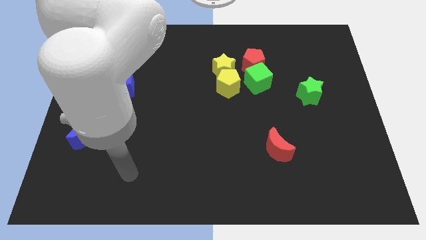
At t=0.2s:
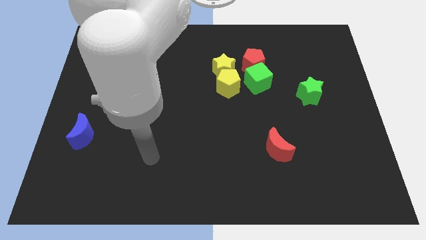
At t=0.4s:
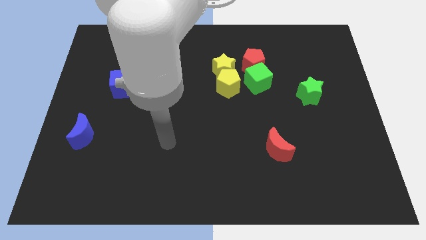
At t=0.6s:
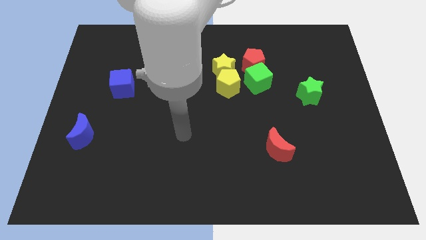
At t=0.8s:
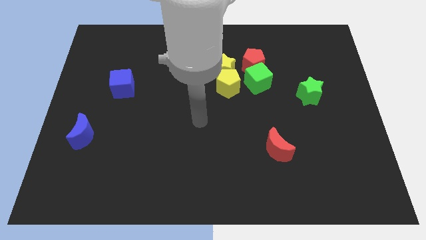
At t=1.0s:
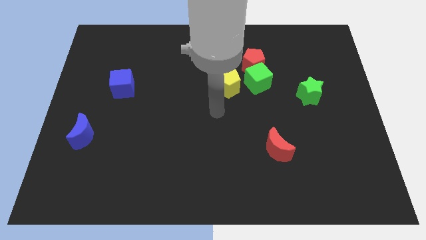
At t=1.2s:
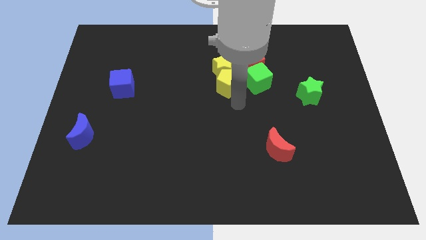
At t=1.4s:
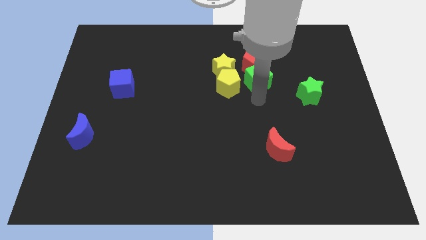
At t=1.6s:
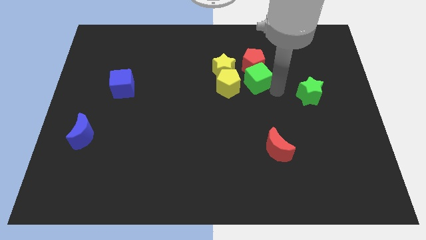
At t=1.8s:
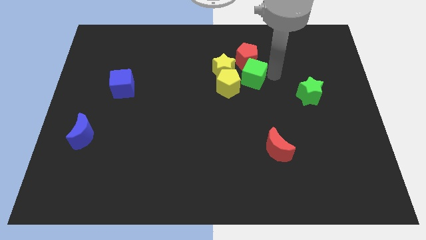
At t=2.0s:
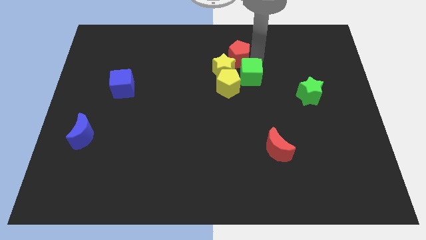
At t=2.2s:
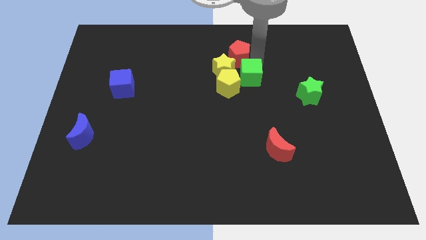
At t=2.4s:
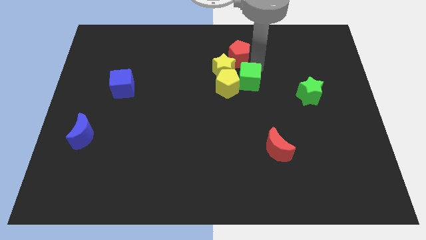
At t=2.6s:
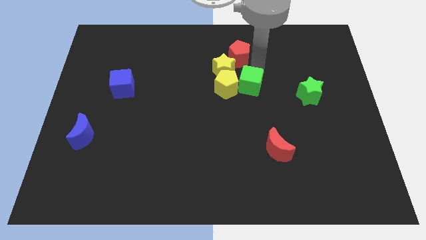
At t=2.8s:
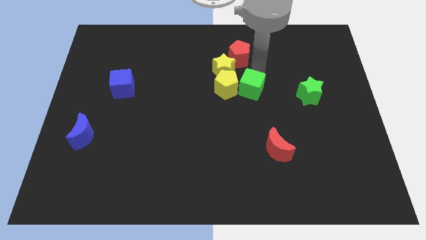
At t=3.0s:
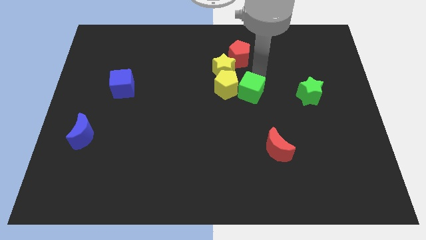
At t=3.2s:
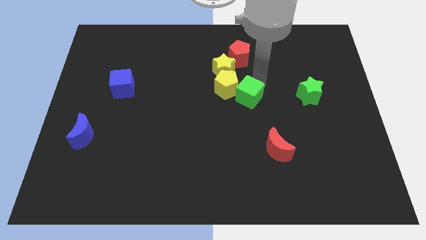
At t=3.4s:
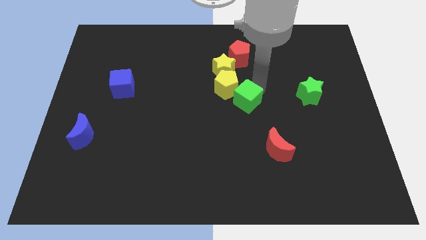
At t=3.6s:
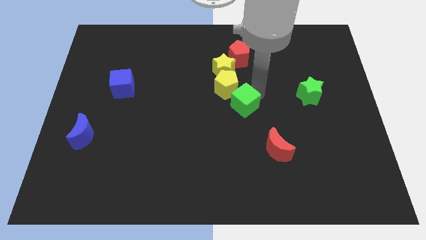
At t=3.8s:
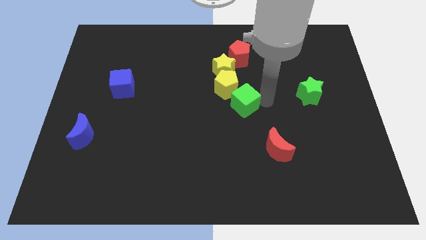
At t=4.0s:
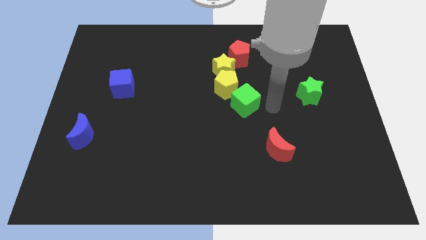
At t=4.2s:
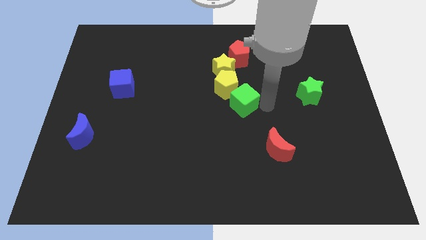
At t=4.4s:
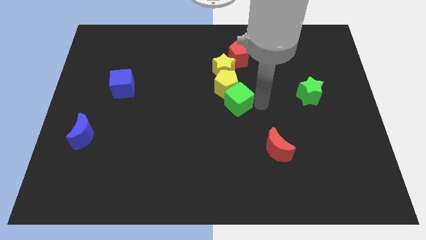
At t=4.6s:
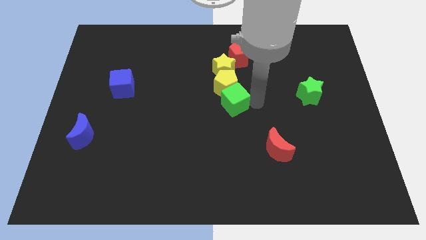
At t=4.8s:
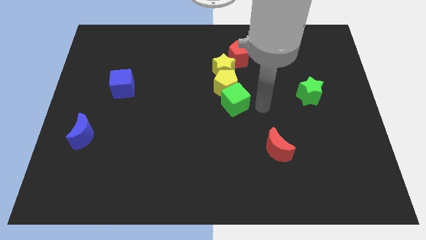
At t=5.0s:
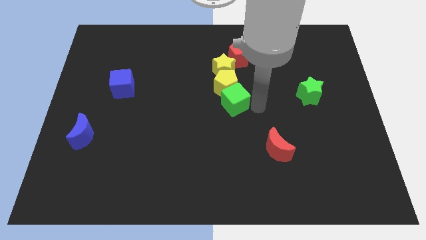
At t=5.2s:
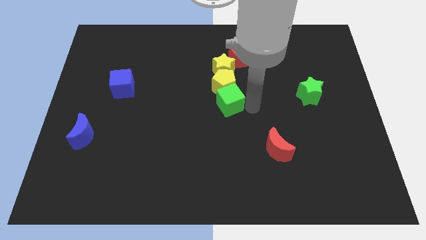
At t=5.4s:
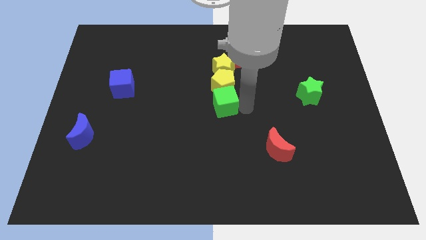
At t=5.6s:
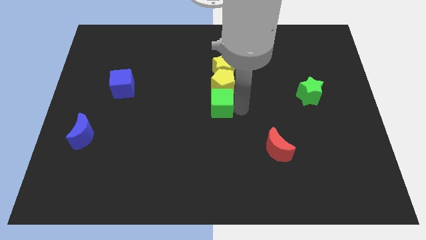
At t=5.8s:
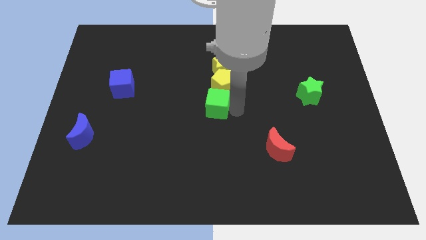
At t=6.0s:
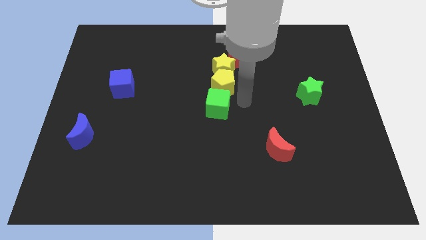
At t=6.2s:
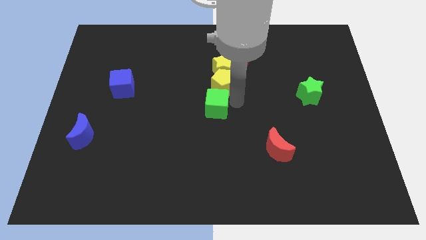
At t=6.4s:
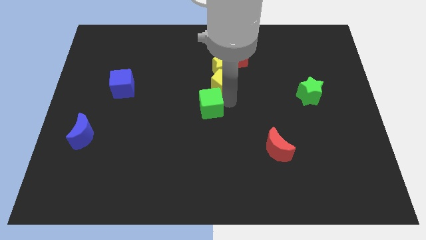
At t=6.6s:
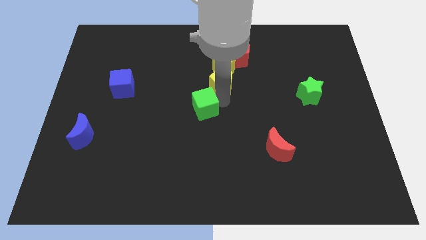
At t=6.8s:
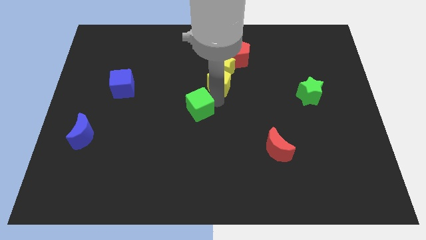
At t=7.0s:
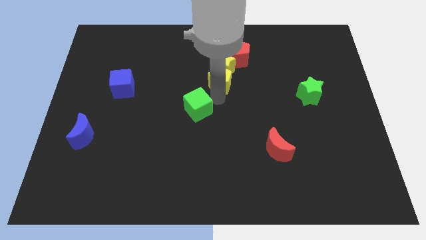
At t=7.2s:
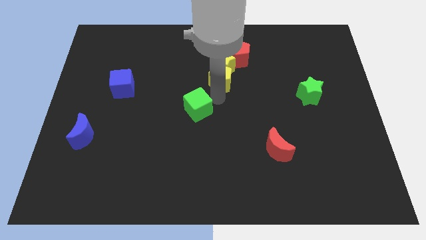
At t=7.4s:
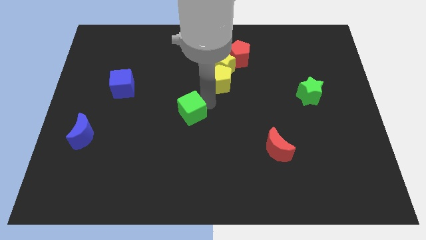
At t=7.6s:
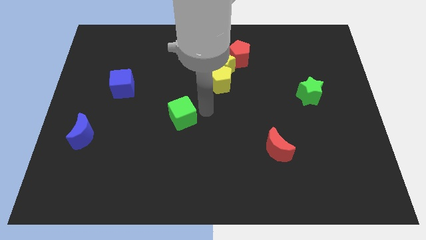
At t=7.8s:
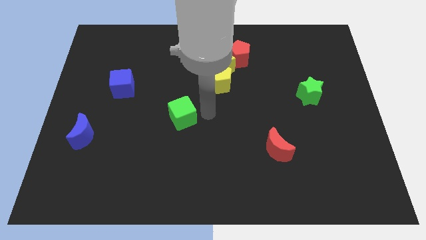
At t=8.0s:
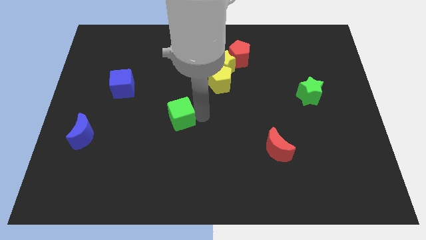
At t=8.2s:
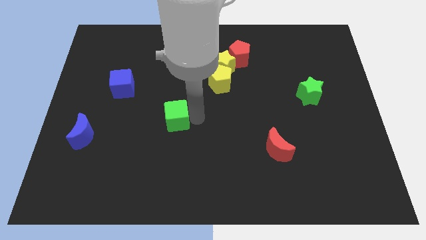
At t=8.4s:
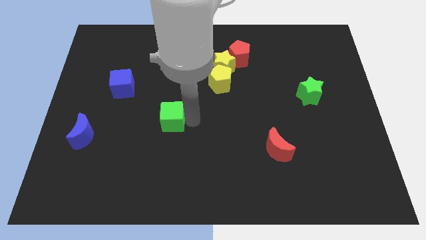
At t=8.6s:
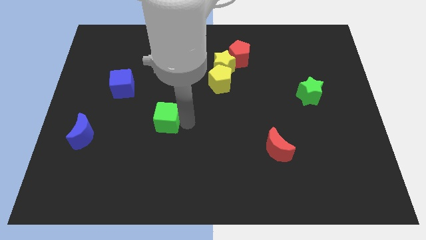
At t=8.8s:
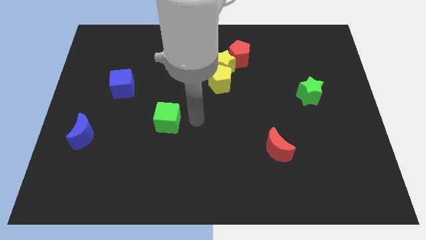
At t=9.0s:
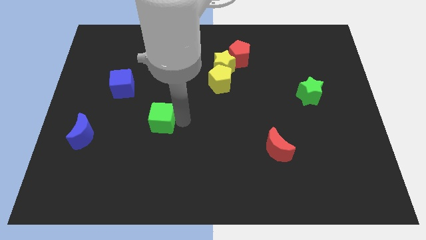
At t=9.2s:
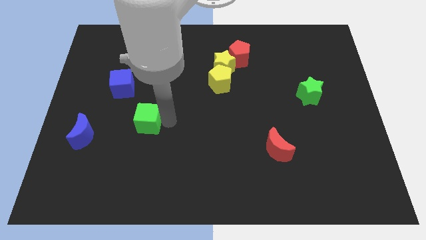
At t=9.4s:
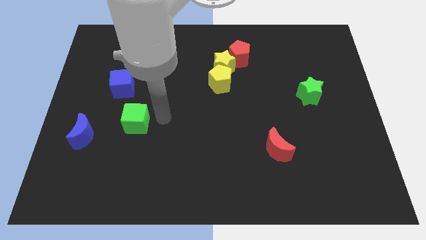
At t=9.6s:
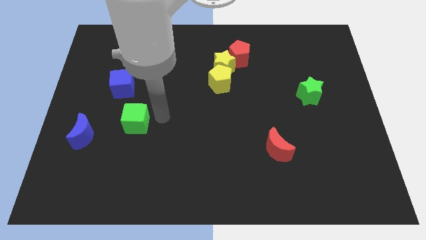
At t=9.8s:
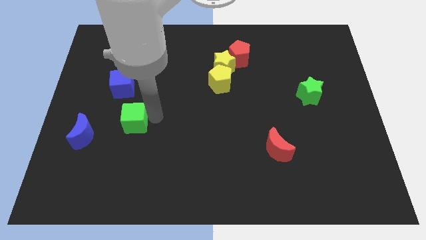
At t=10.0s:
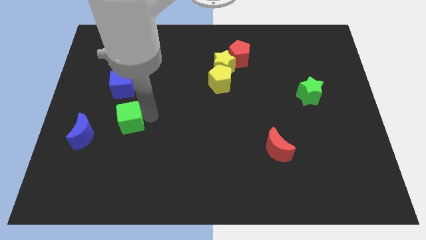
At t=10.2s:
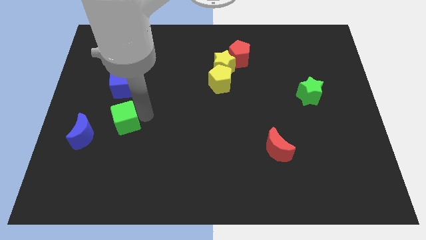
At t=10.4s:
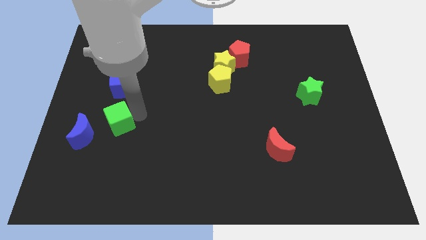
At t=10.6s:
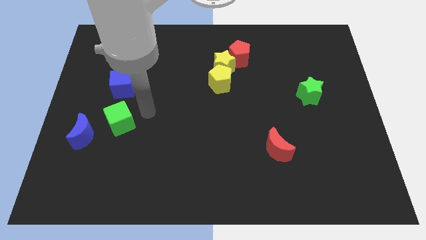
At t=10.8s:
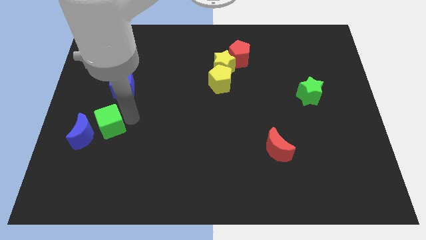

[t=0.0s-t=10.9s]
put the green cube close to the blue moon

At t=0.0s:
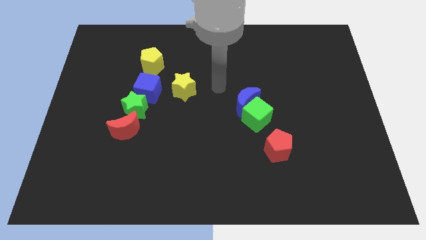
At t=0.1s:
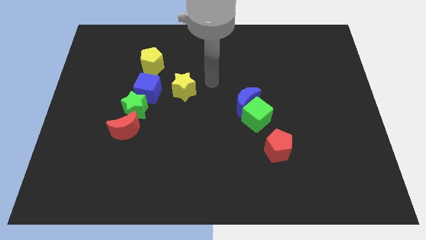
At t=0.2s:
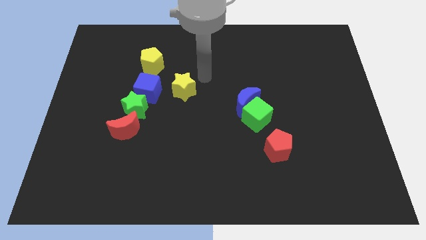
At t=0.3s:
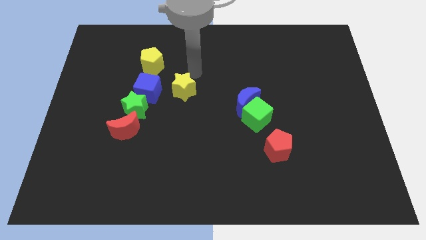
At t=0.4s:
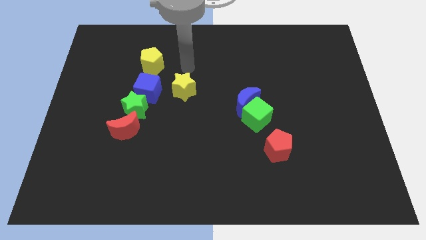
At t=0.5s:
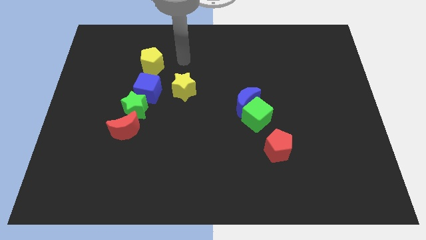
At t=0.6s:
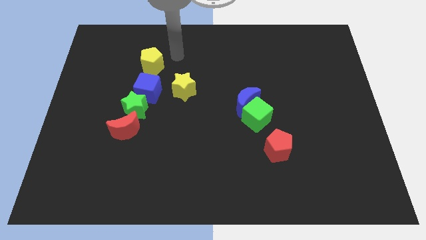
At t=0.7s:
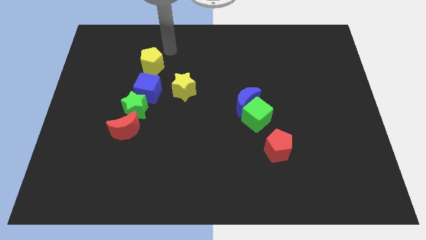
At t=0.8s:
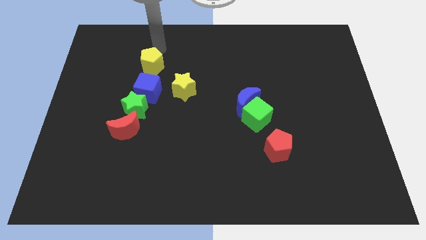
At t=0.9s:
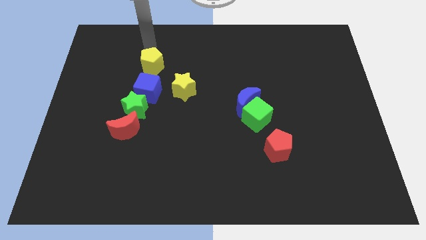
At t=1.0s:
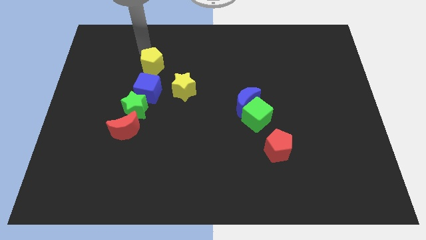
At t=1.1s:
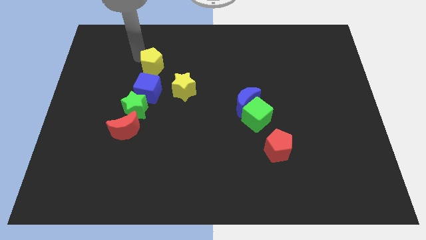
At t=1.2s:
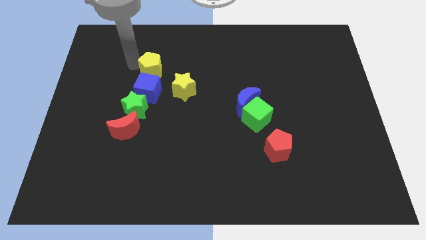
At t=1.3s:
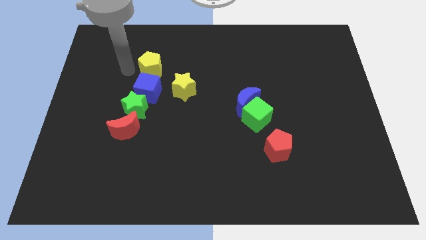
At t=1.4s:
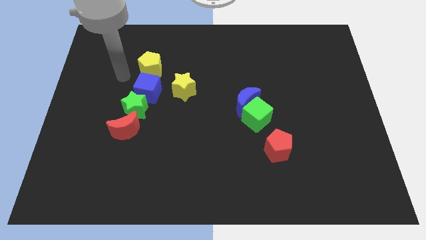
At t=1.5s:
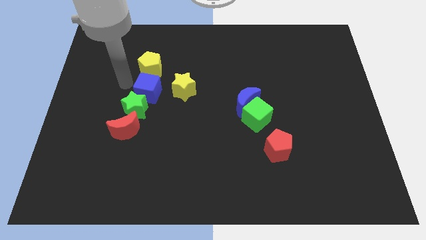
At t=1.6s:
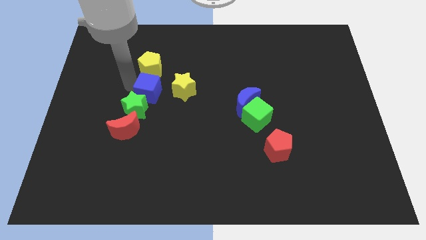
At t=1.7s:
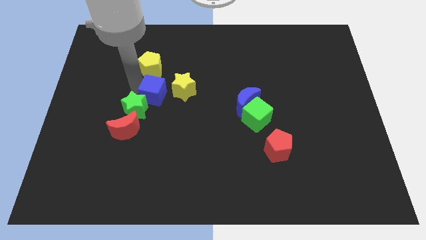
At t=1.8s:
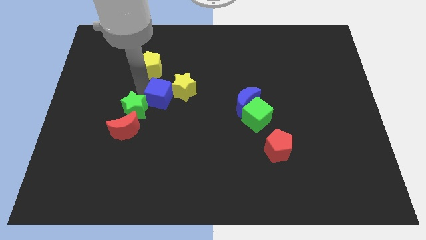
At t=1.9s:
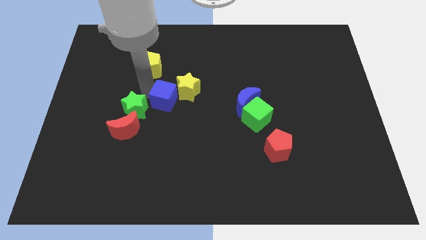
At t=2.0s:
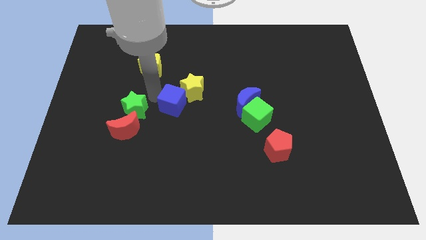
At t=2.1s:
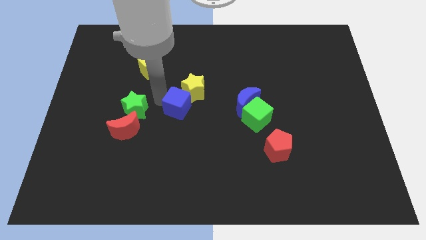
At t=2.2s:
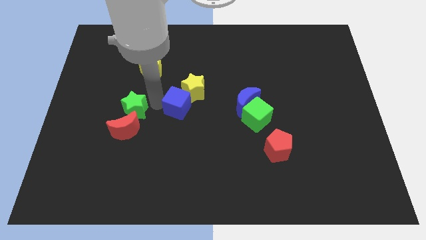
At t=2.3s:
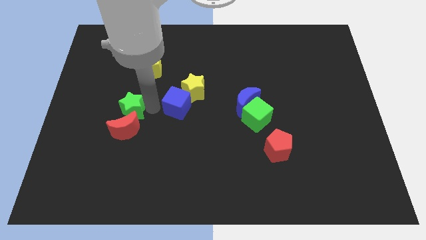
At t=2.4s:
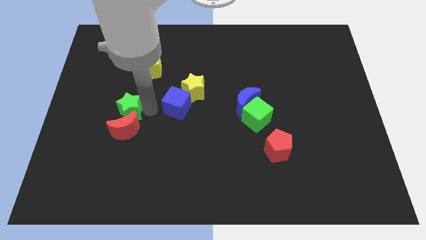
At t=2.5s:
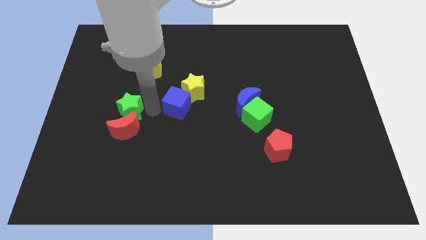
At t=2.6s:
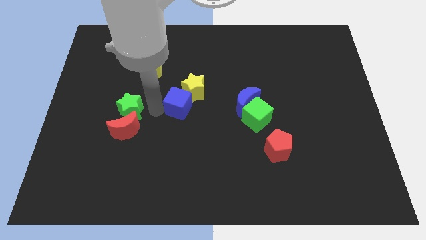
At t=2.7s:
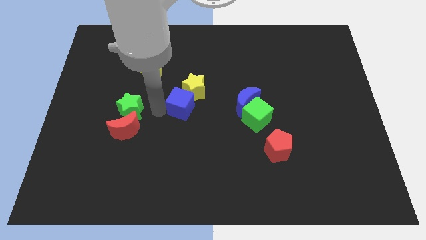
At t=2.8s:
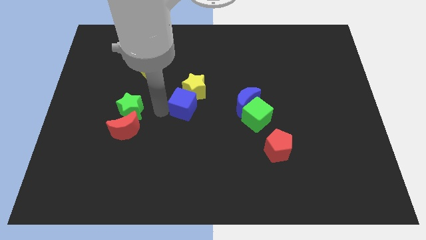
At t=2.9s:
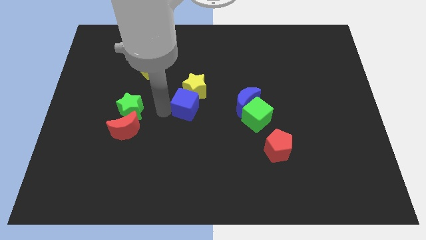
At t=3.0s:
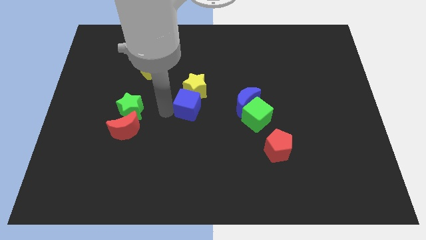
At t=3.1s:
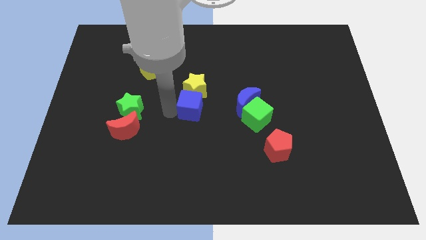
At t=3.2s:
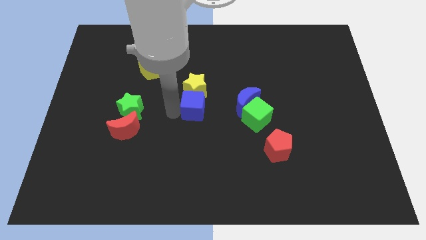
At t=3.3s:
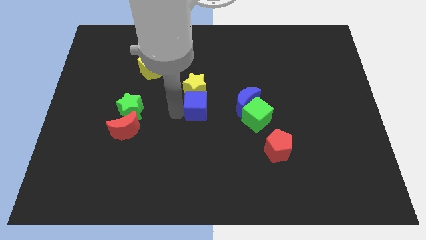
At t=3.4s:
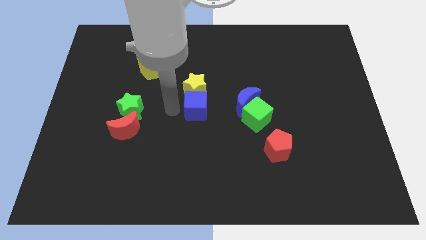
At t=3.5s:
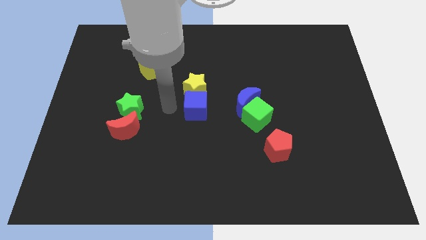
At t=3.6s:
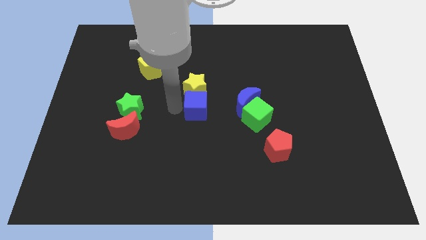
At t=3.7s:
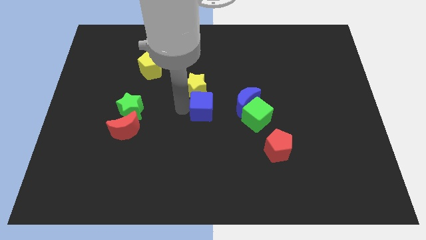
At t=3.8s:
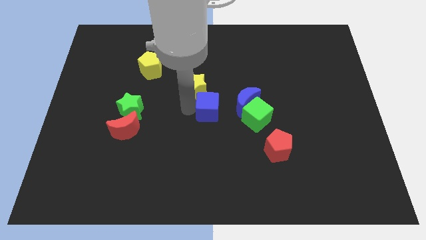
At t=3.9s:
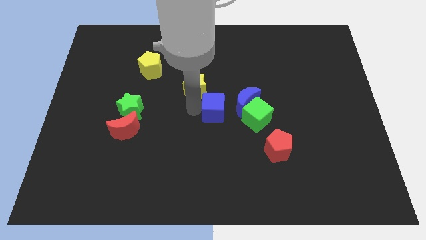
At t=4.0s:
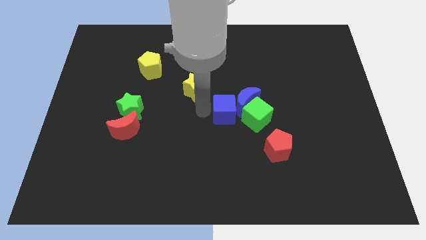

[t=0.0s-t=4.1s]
put the blue cube next to the blue moon
